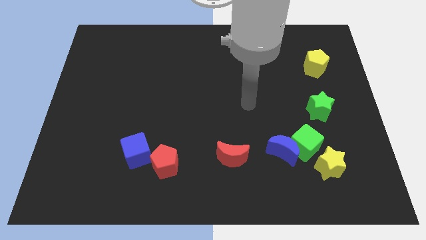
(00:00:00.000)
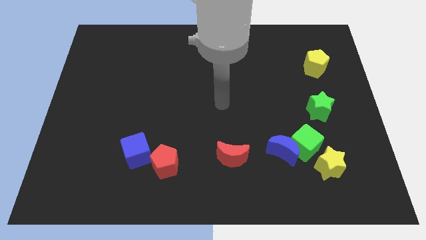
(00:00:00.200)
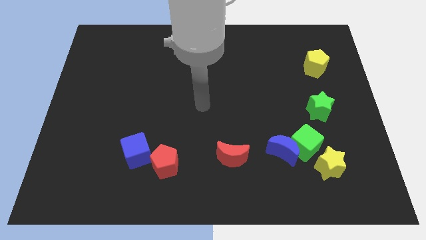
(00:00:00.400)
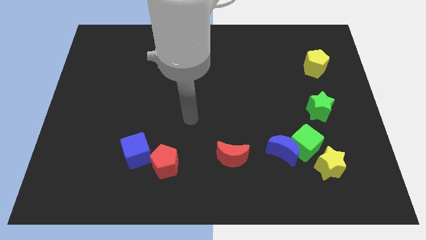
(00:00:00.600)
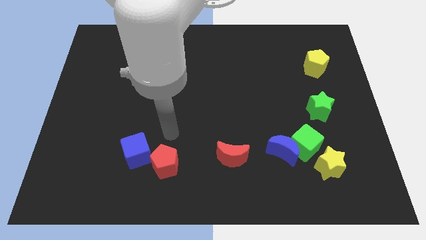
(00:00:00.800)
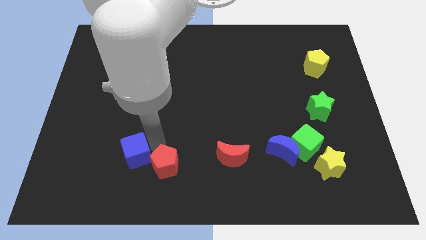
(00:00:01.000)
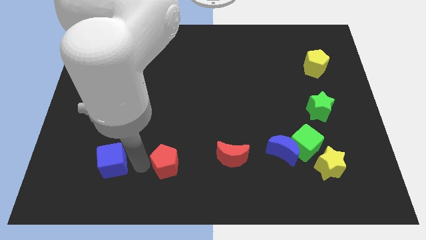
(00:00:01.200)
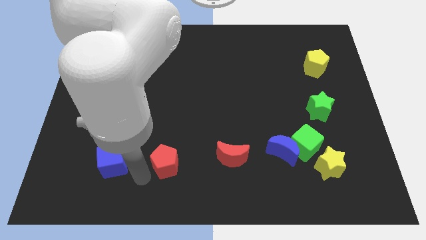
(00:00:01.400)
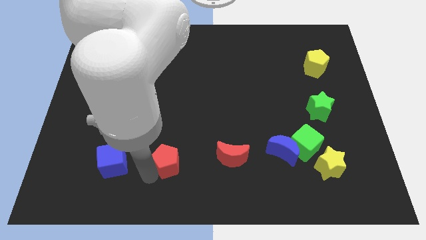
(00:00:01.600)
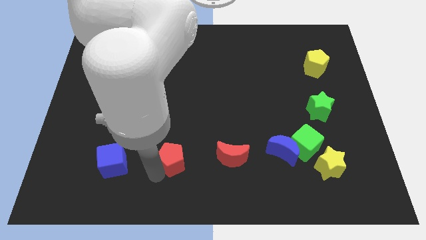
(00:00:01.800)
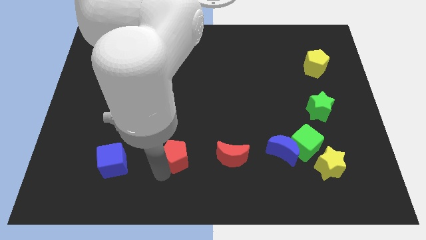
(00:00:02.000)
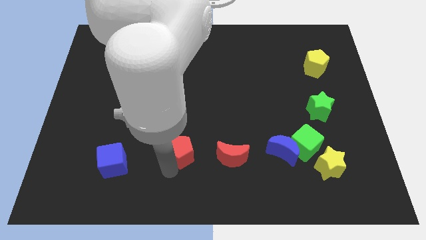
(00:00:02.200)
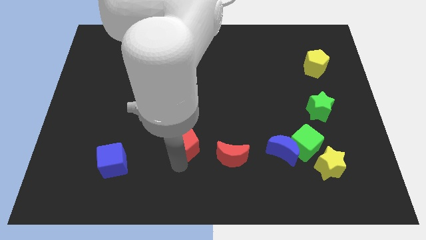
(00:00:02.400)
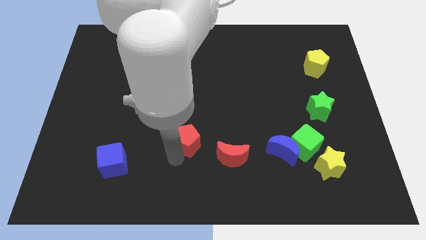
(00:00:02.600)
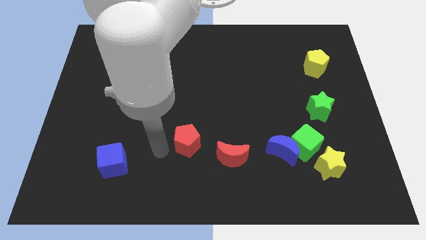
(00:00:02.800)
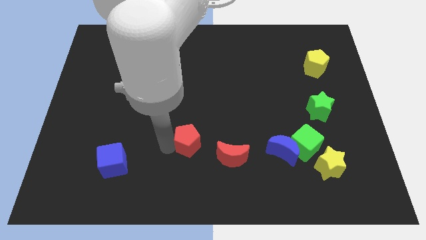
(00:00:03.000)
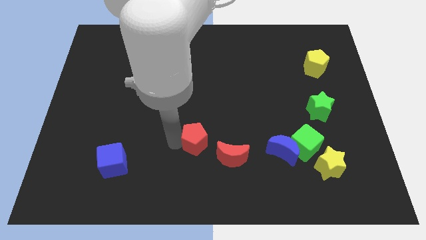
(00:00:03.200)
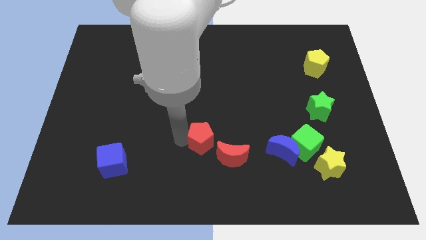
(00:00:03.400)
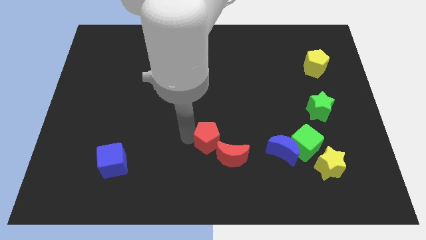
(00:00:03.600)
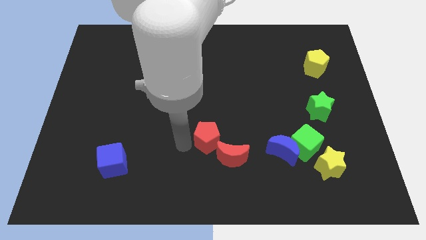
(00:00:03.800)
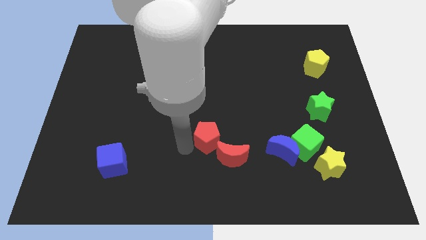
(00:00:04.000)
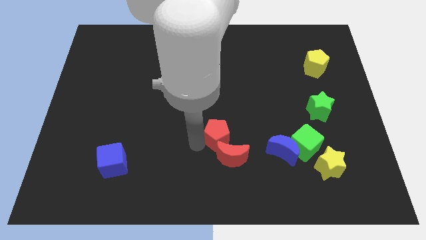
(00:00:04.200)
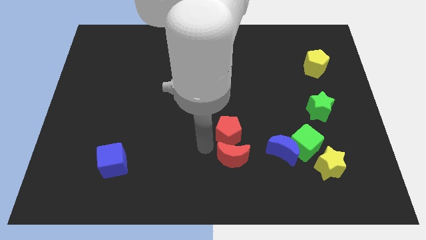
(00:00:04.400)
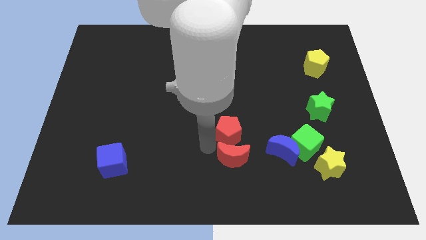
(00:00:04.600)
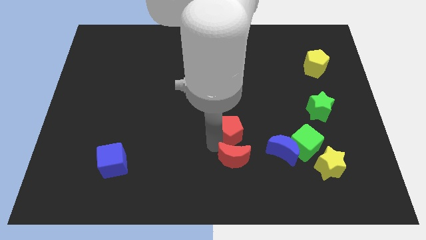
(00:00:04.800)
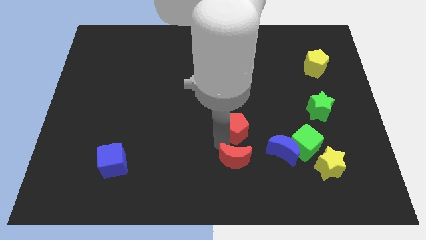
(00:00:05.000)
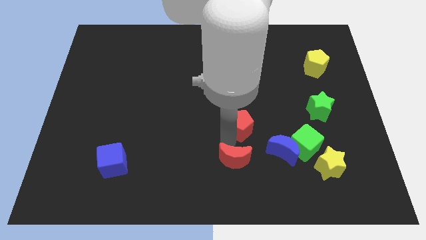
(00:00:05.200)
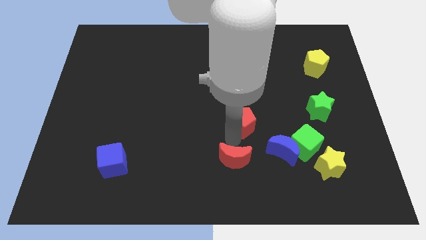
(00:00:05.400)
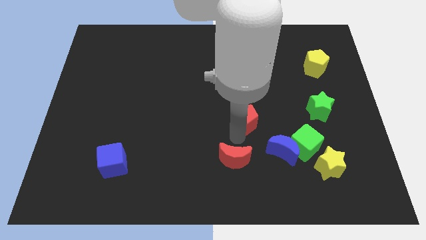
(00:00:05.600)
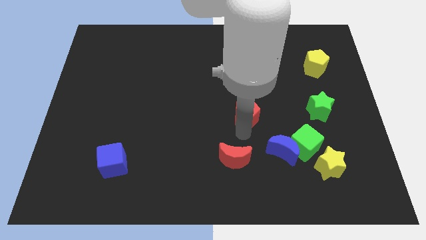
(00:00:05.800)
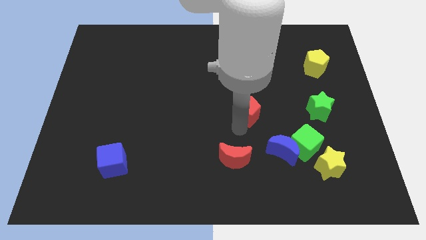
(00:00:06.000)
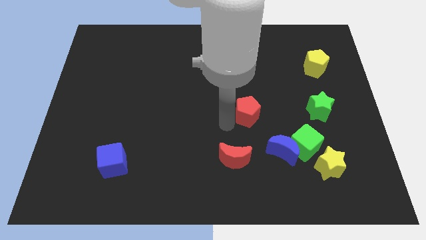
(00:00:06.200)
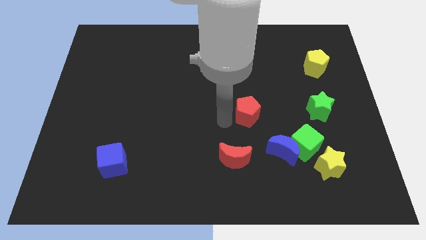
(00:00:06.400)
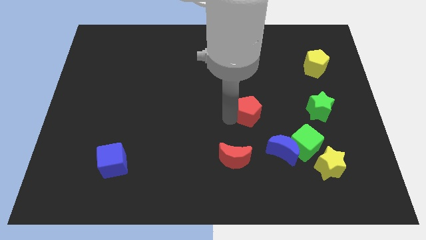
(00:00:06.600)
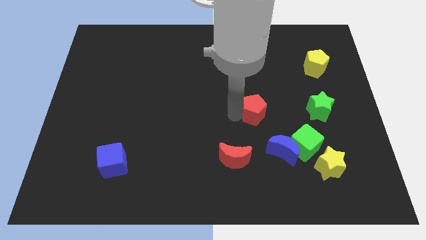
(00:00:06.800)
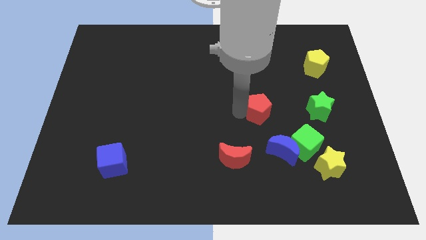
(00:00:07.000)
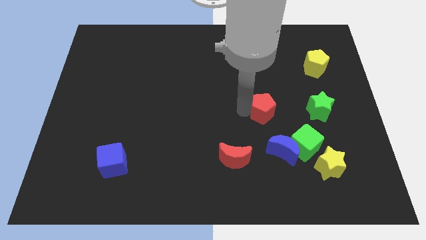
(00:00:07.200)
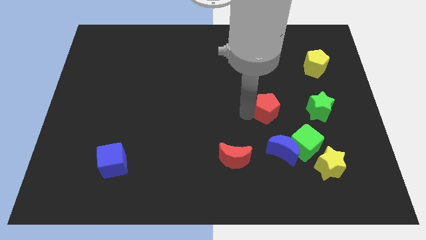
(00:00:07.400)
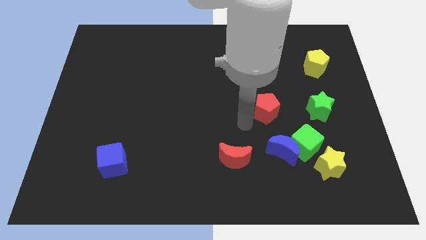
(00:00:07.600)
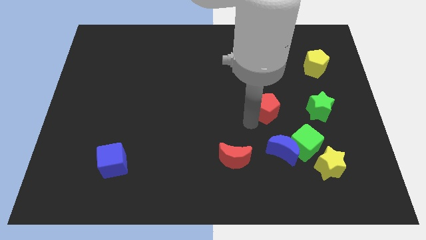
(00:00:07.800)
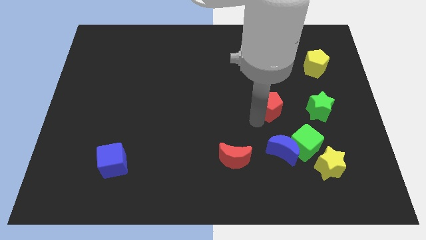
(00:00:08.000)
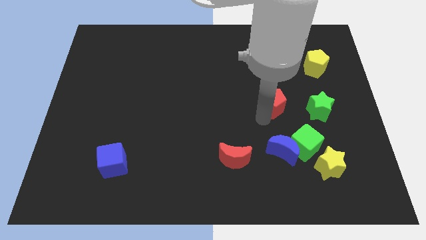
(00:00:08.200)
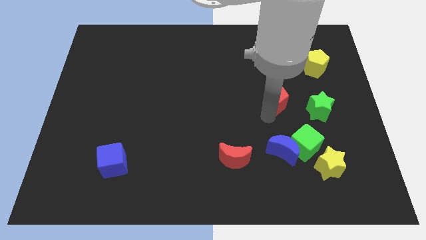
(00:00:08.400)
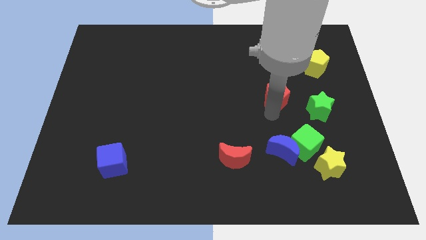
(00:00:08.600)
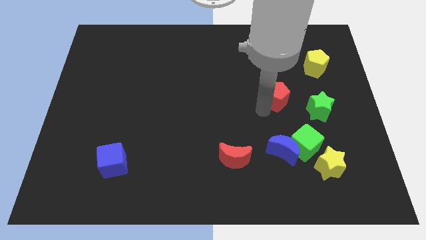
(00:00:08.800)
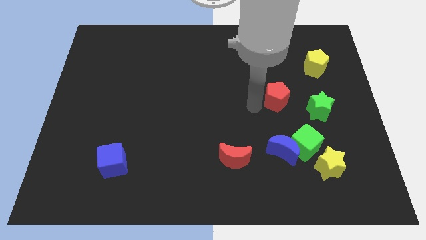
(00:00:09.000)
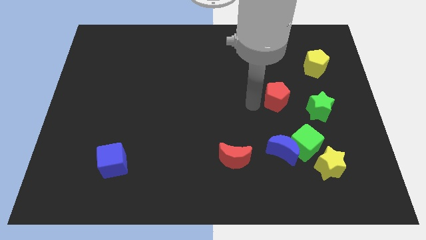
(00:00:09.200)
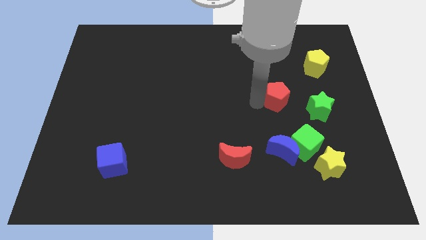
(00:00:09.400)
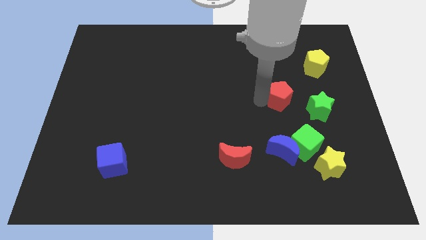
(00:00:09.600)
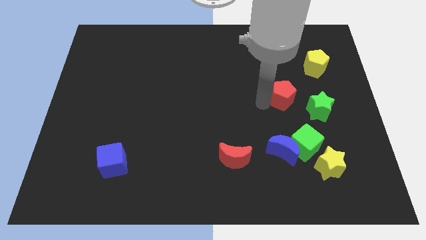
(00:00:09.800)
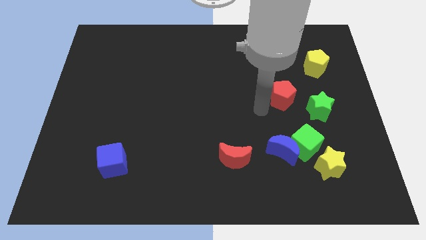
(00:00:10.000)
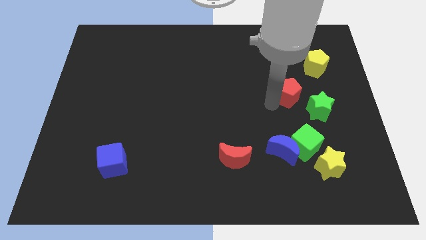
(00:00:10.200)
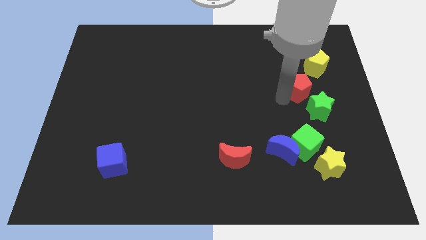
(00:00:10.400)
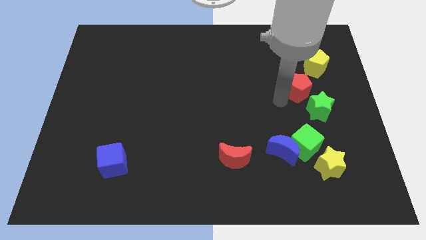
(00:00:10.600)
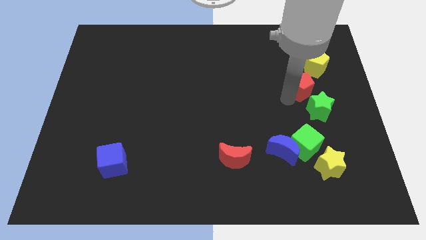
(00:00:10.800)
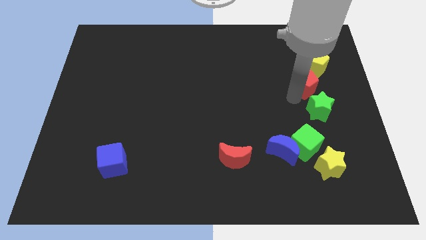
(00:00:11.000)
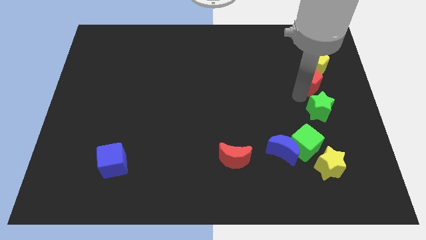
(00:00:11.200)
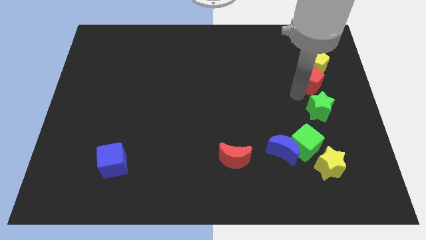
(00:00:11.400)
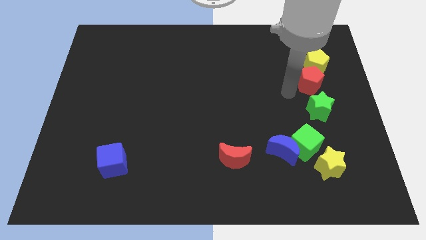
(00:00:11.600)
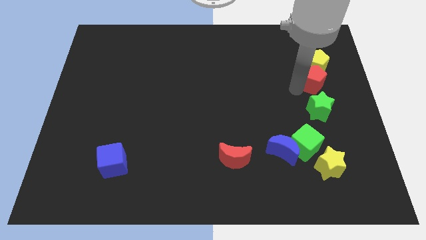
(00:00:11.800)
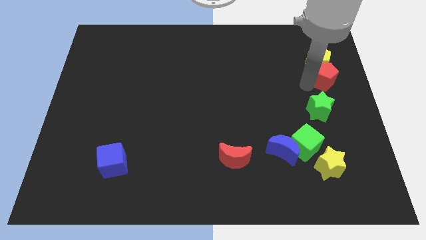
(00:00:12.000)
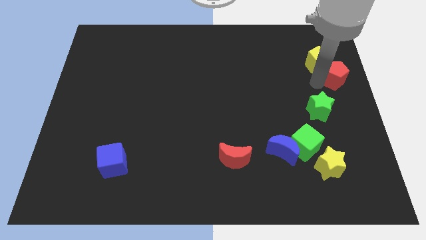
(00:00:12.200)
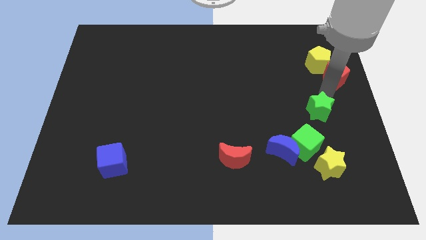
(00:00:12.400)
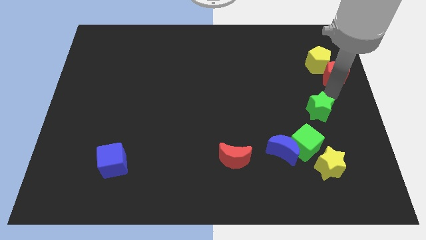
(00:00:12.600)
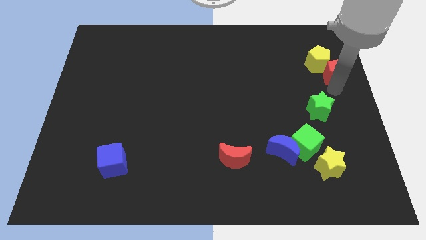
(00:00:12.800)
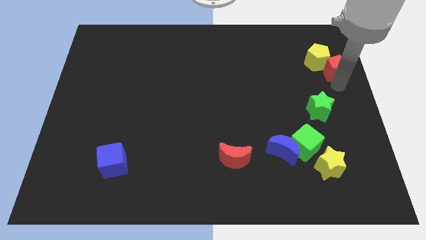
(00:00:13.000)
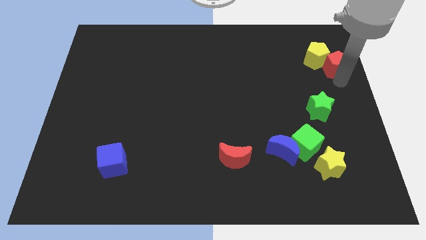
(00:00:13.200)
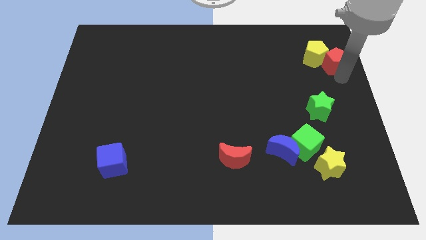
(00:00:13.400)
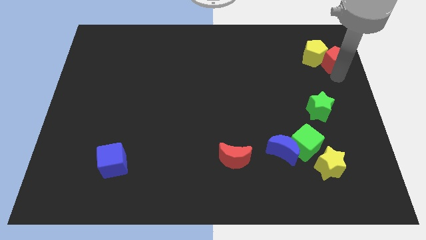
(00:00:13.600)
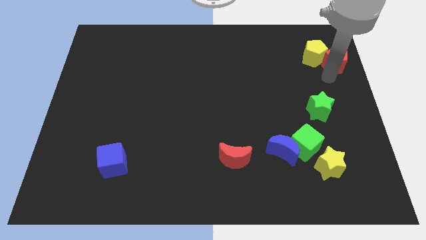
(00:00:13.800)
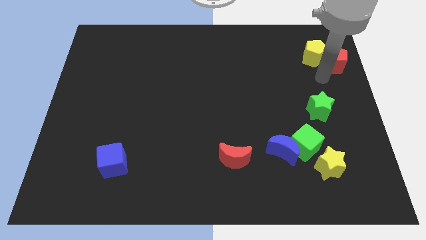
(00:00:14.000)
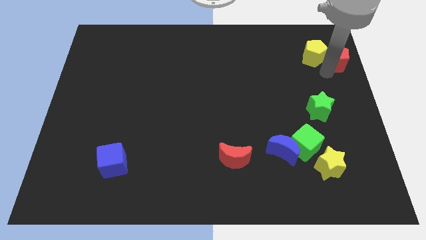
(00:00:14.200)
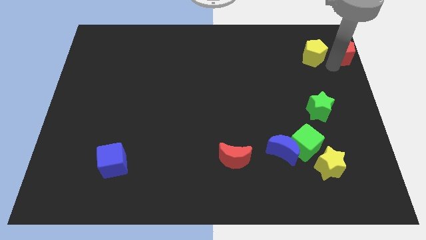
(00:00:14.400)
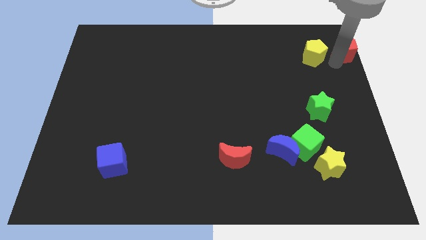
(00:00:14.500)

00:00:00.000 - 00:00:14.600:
put the red pentagon to the top right of the board

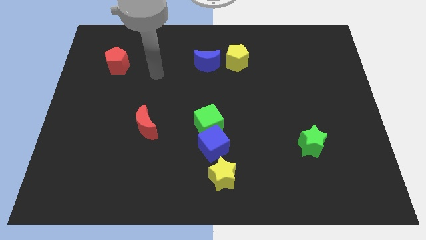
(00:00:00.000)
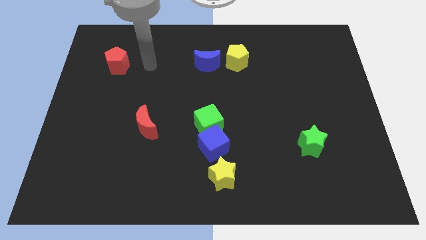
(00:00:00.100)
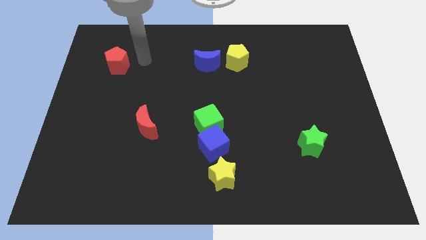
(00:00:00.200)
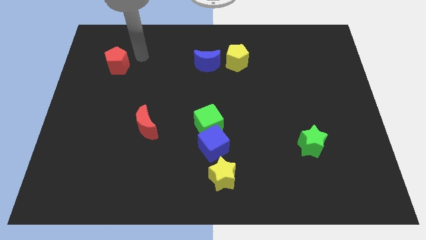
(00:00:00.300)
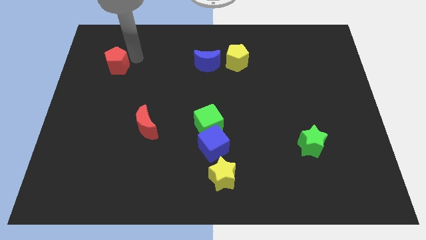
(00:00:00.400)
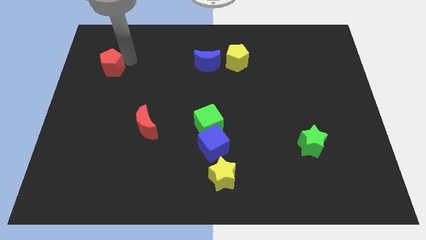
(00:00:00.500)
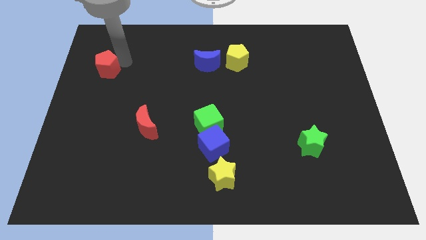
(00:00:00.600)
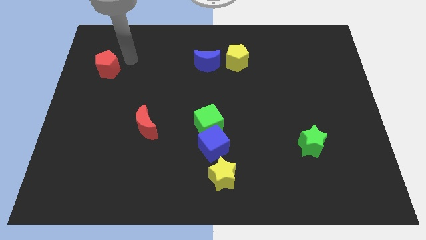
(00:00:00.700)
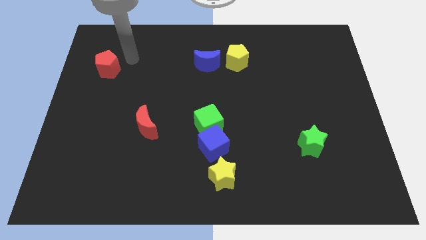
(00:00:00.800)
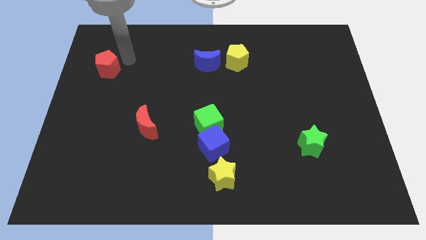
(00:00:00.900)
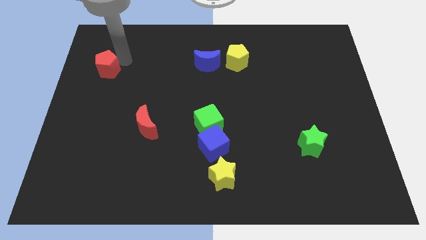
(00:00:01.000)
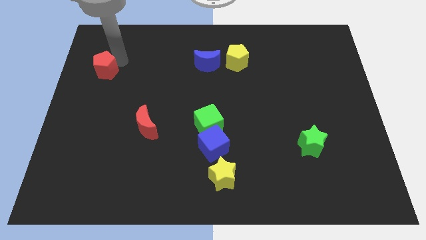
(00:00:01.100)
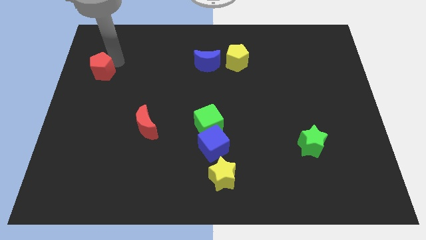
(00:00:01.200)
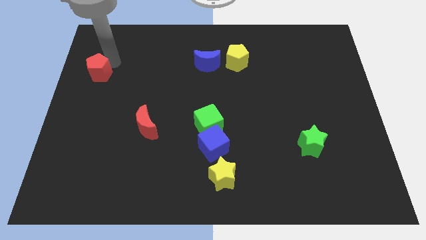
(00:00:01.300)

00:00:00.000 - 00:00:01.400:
push the red pentagon to the center left
